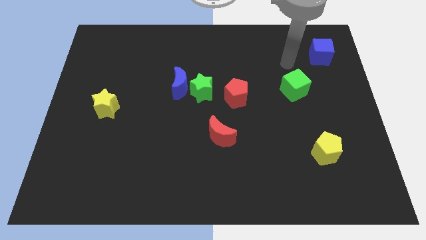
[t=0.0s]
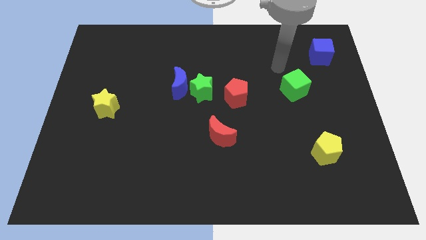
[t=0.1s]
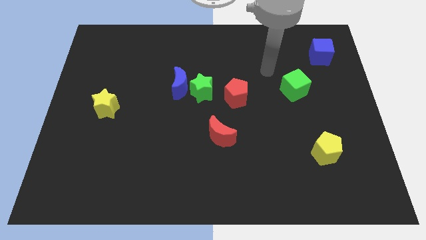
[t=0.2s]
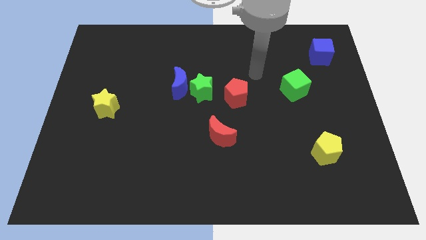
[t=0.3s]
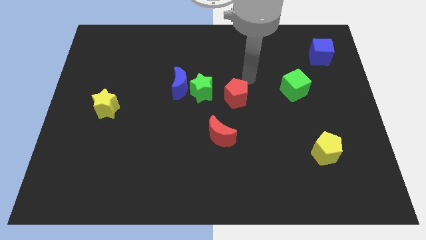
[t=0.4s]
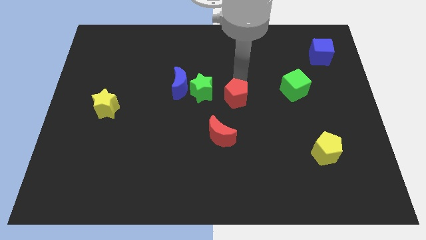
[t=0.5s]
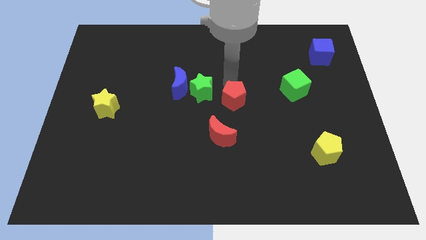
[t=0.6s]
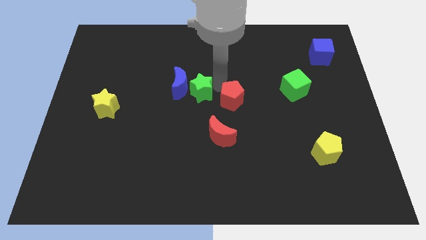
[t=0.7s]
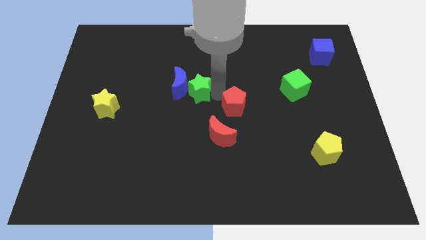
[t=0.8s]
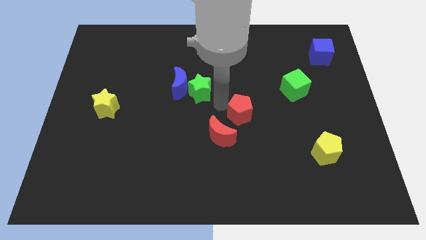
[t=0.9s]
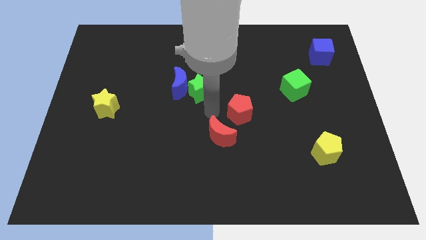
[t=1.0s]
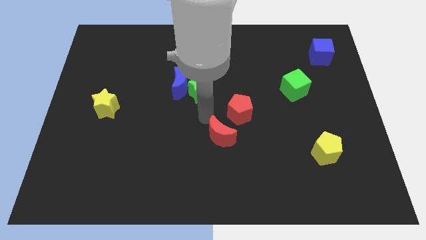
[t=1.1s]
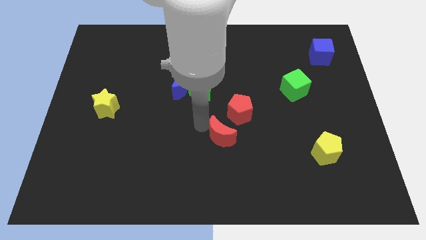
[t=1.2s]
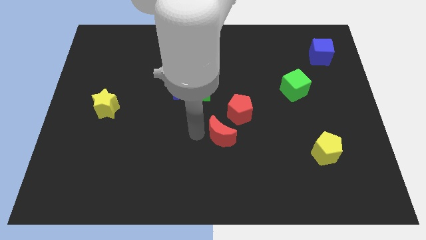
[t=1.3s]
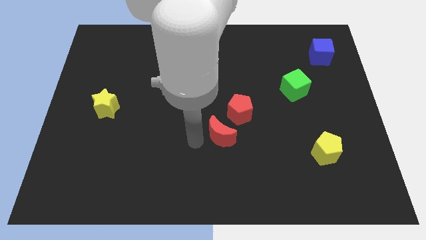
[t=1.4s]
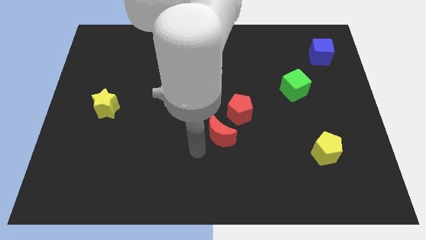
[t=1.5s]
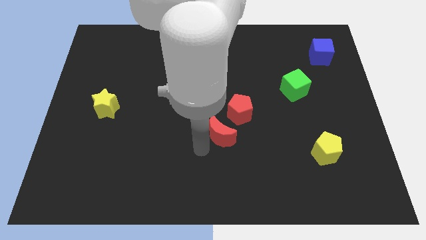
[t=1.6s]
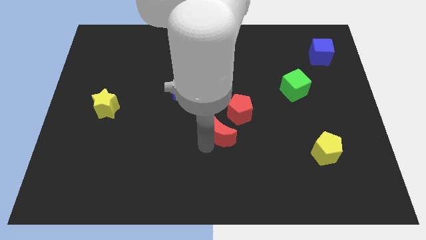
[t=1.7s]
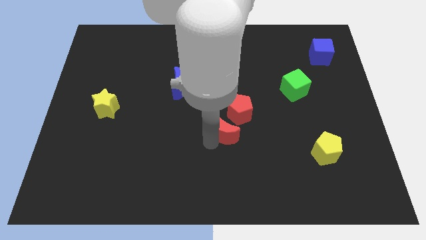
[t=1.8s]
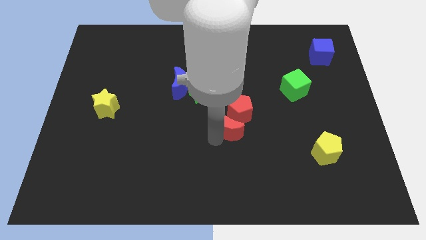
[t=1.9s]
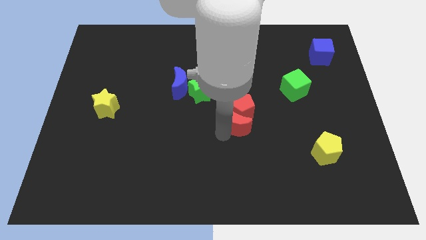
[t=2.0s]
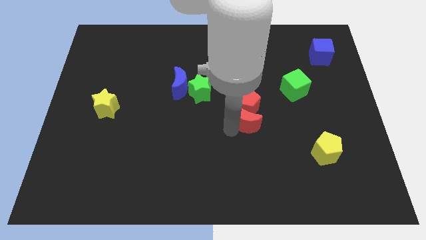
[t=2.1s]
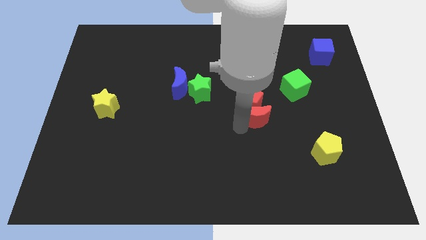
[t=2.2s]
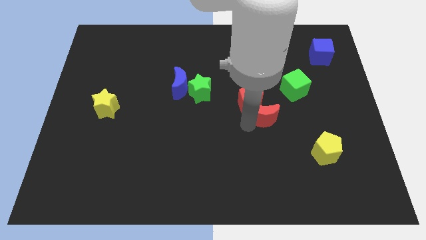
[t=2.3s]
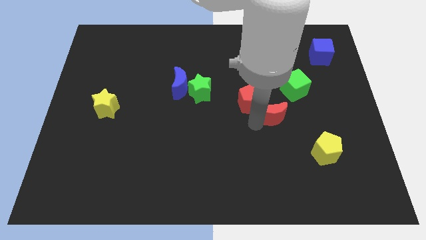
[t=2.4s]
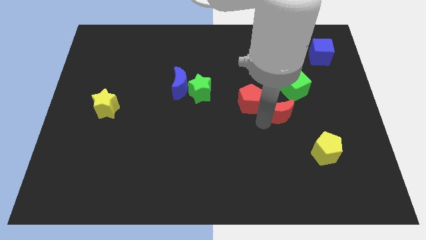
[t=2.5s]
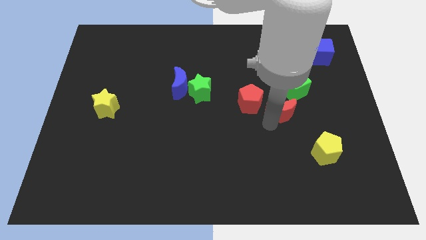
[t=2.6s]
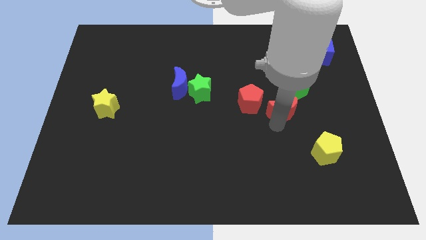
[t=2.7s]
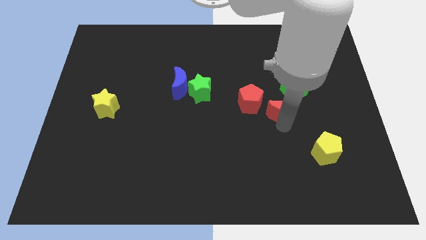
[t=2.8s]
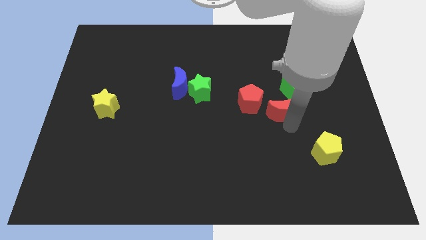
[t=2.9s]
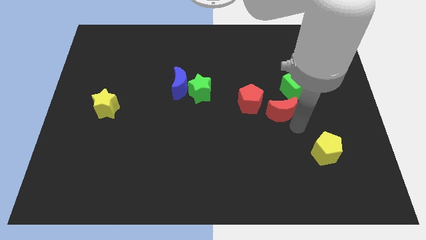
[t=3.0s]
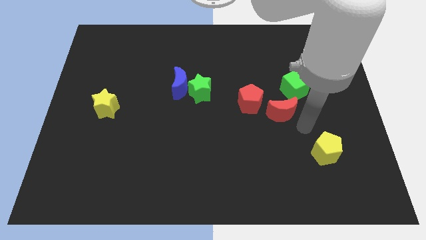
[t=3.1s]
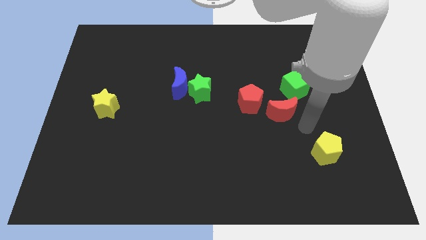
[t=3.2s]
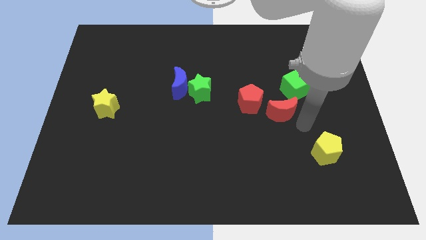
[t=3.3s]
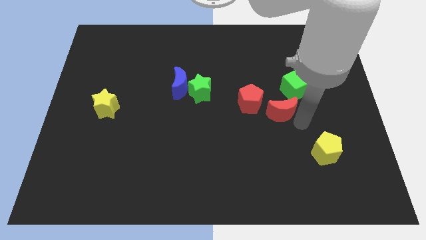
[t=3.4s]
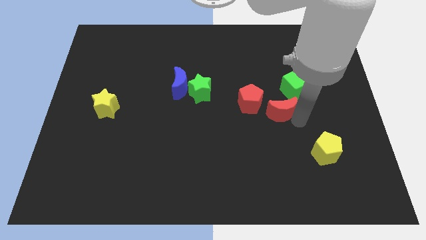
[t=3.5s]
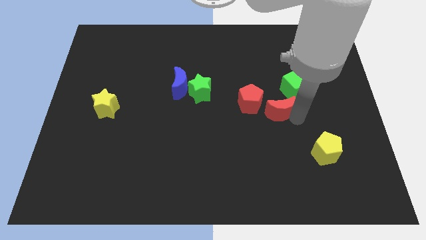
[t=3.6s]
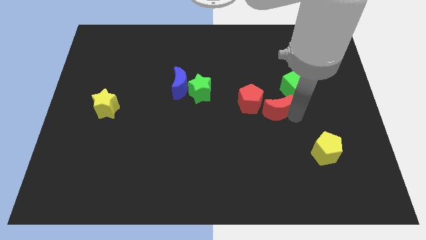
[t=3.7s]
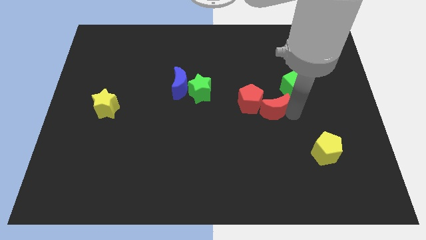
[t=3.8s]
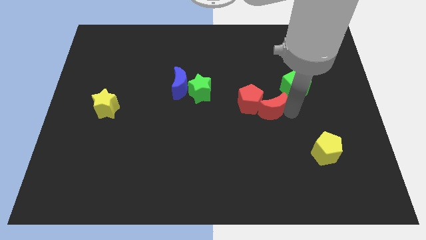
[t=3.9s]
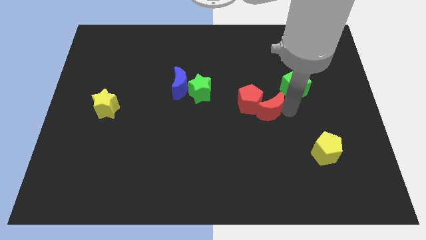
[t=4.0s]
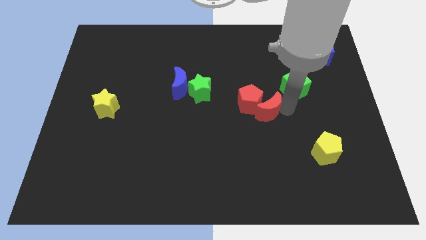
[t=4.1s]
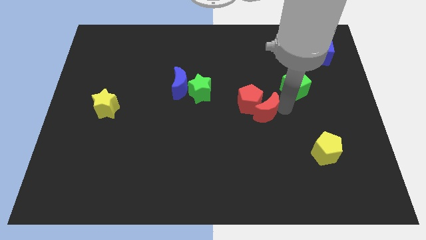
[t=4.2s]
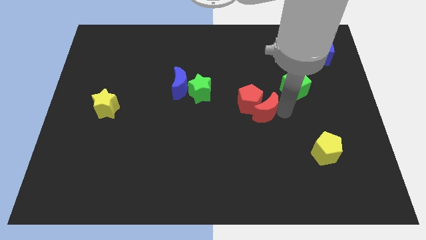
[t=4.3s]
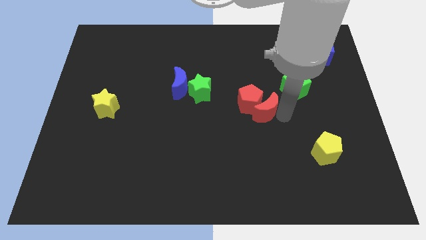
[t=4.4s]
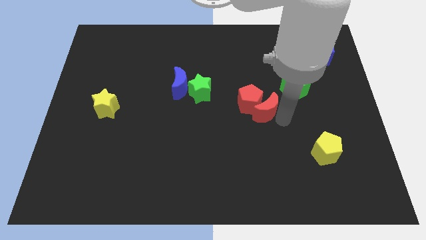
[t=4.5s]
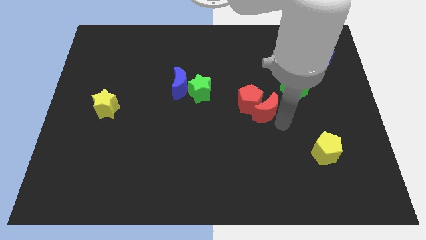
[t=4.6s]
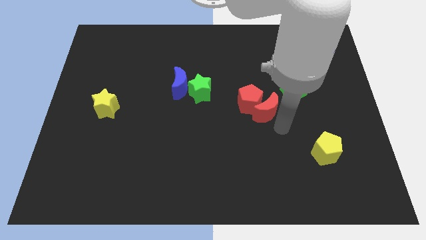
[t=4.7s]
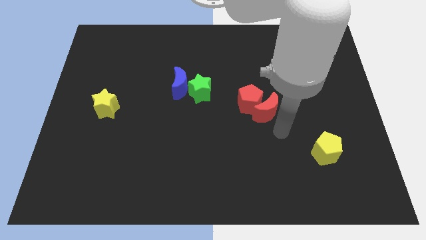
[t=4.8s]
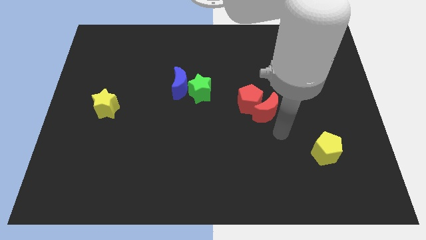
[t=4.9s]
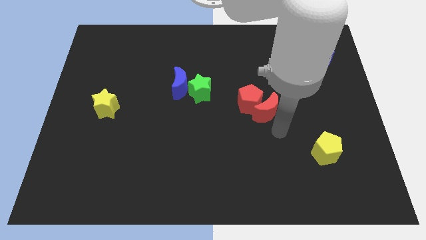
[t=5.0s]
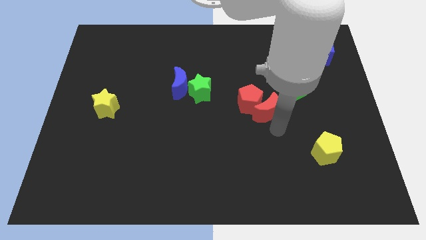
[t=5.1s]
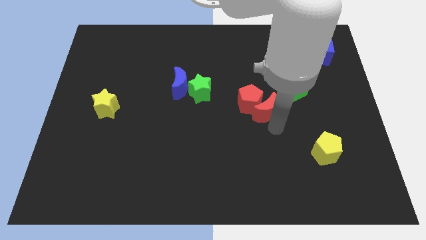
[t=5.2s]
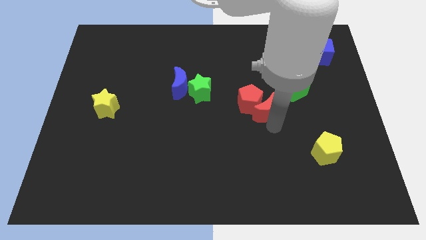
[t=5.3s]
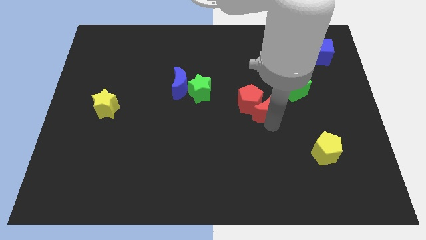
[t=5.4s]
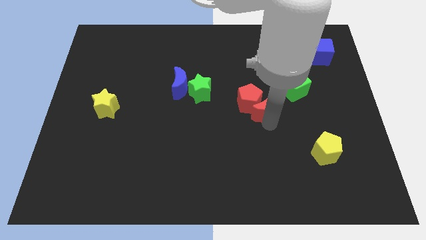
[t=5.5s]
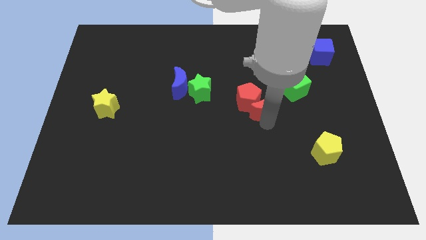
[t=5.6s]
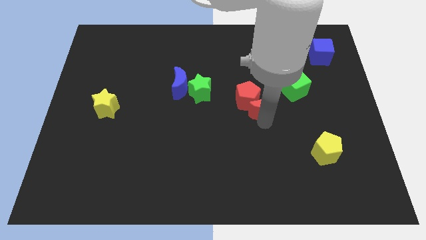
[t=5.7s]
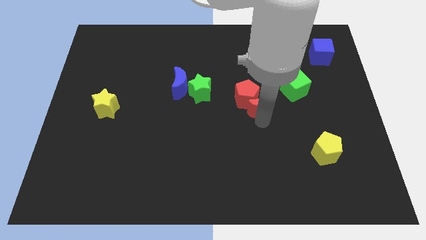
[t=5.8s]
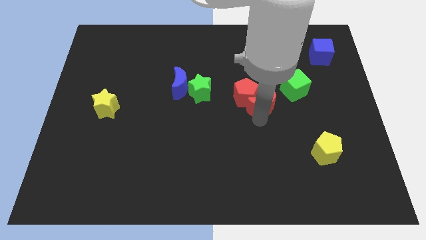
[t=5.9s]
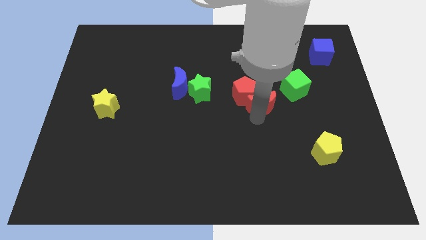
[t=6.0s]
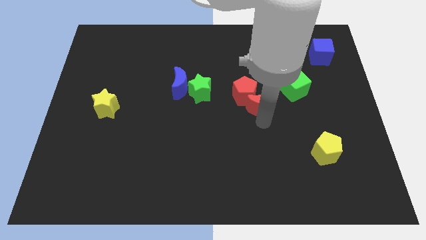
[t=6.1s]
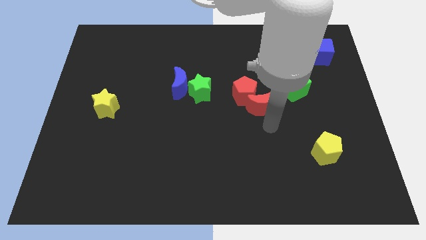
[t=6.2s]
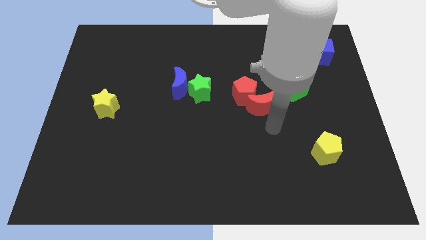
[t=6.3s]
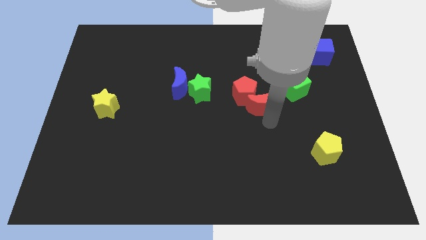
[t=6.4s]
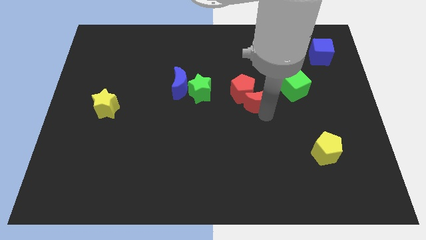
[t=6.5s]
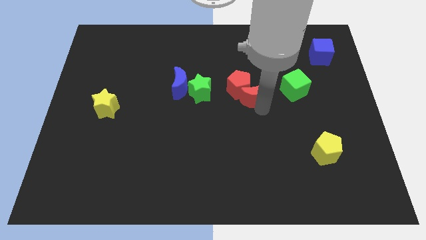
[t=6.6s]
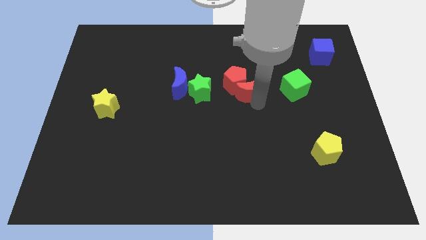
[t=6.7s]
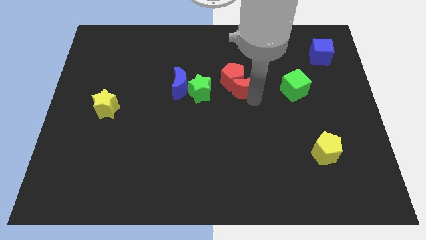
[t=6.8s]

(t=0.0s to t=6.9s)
move the red moon right of the blue moon

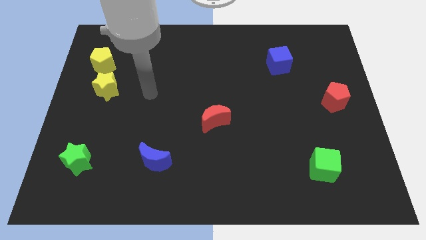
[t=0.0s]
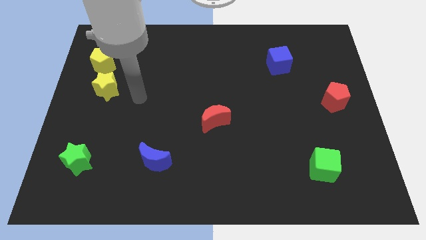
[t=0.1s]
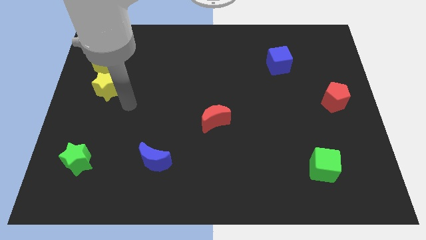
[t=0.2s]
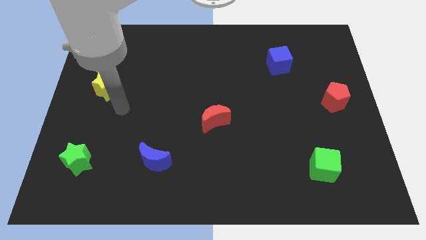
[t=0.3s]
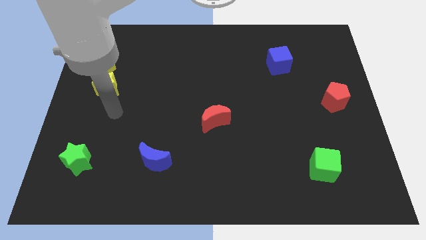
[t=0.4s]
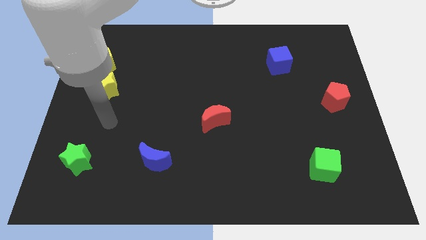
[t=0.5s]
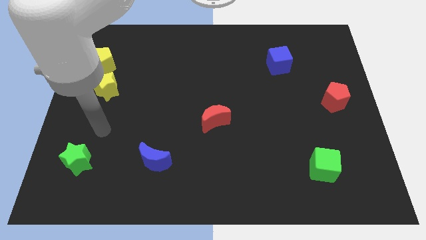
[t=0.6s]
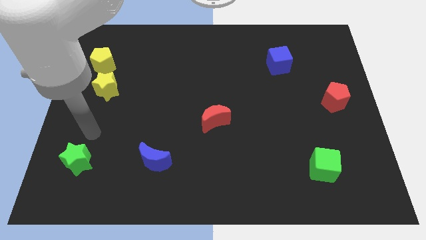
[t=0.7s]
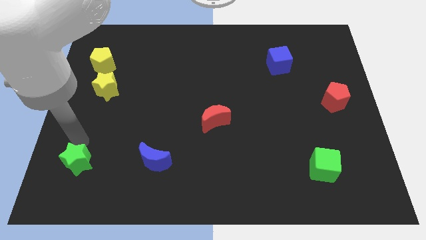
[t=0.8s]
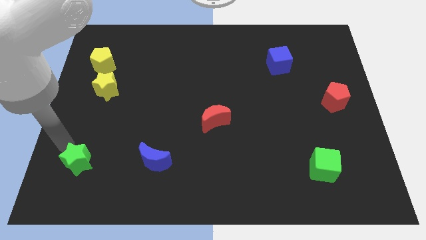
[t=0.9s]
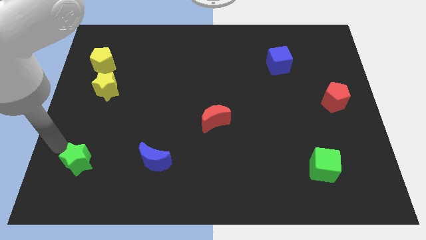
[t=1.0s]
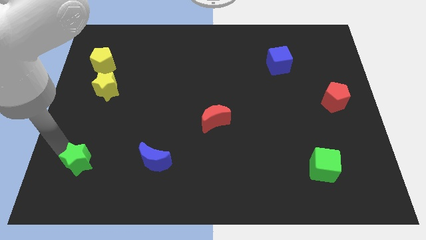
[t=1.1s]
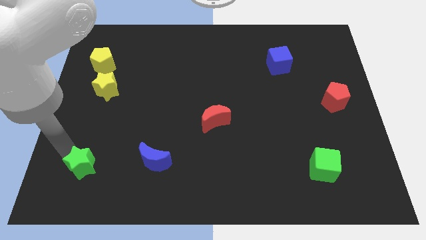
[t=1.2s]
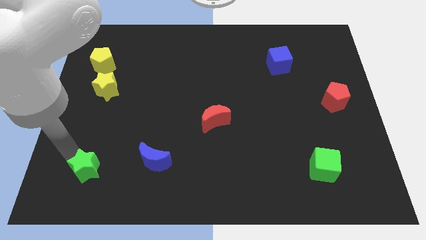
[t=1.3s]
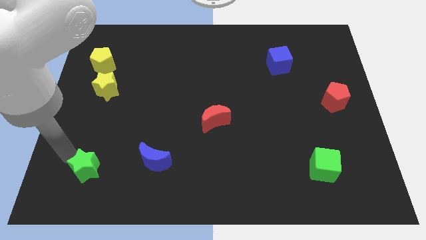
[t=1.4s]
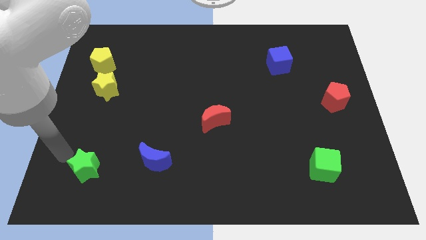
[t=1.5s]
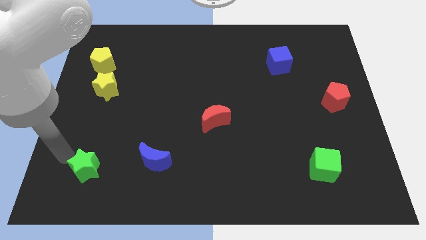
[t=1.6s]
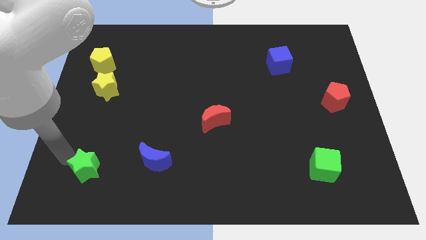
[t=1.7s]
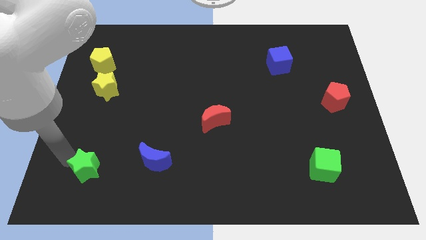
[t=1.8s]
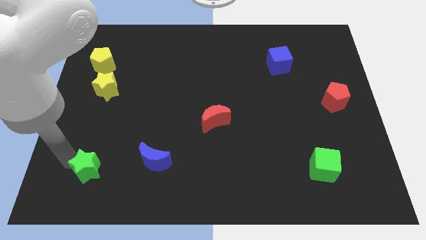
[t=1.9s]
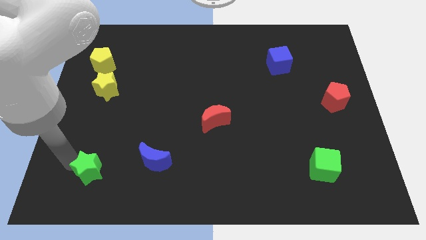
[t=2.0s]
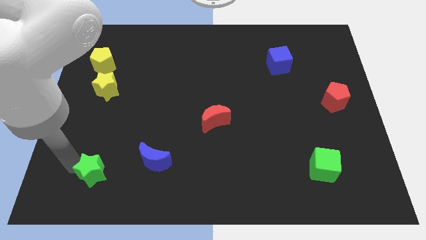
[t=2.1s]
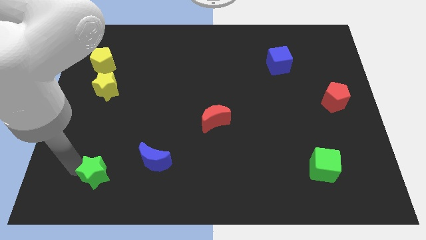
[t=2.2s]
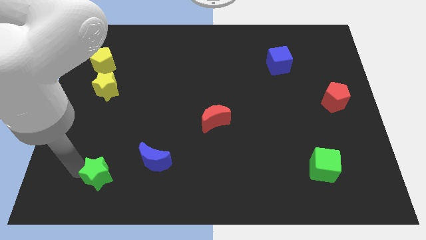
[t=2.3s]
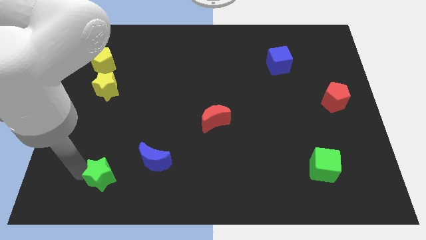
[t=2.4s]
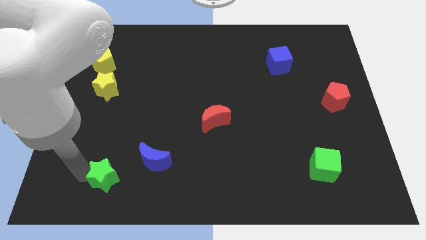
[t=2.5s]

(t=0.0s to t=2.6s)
push the green star to the bottom left of the blue moon
